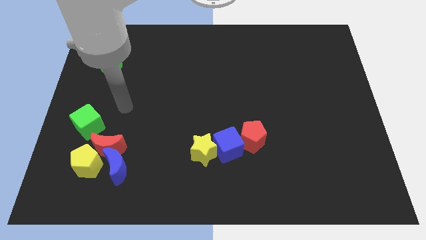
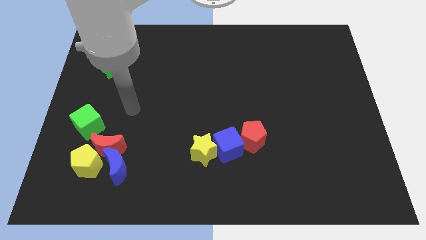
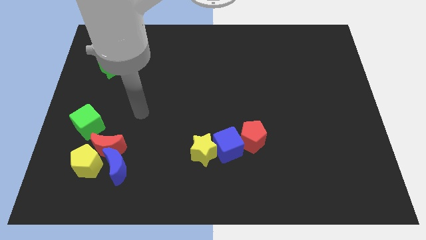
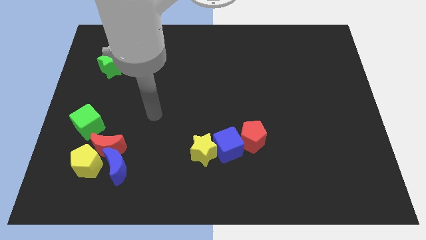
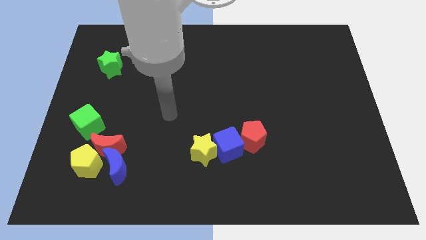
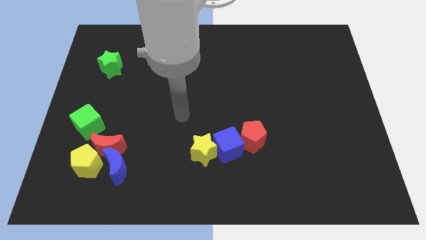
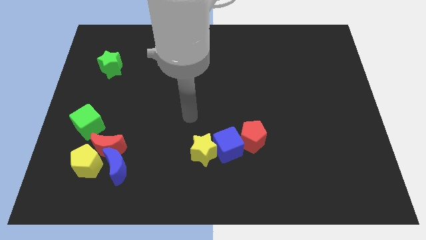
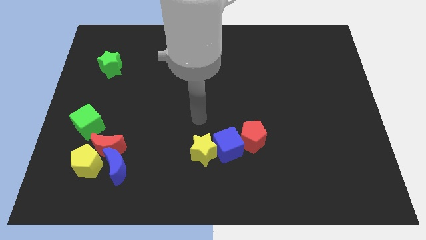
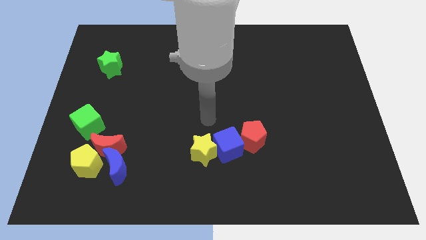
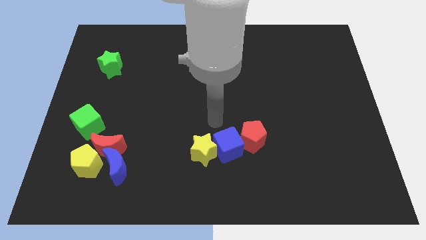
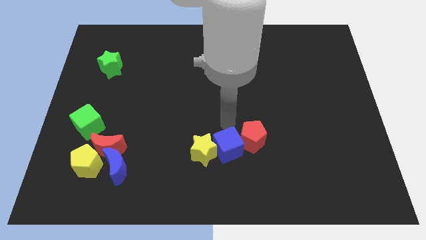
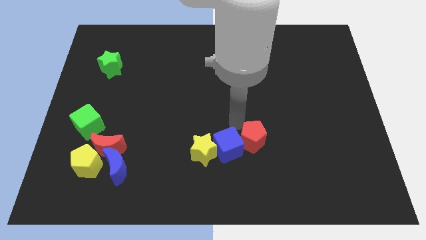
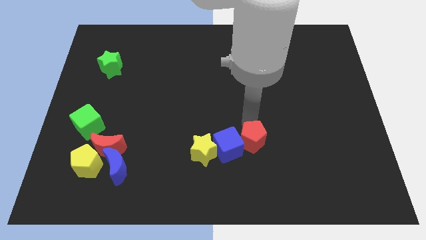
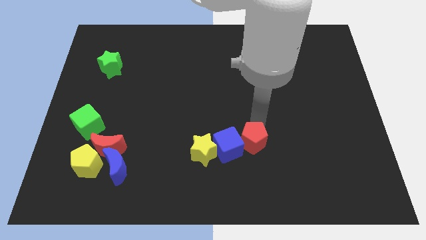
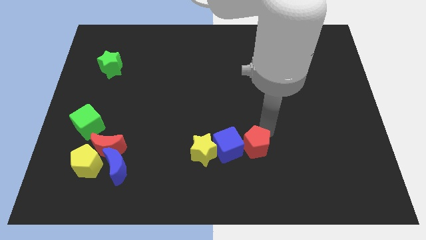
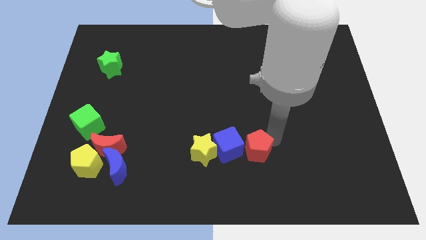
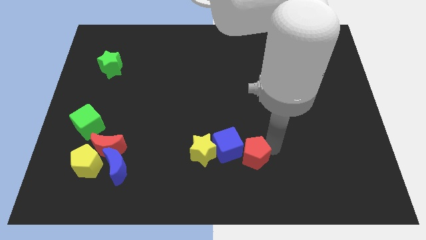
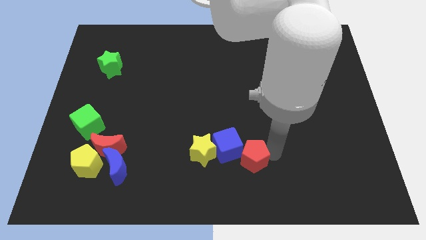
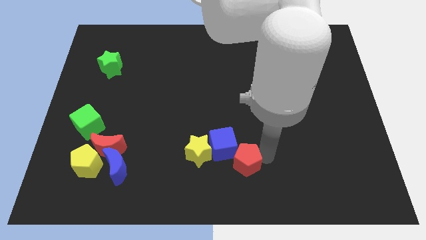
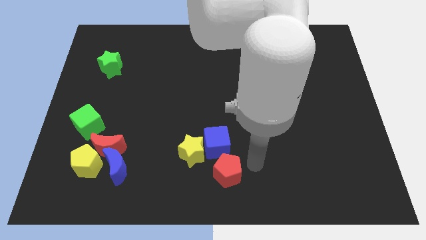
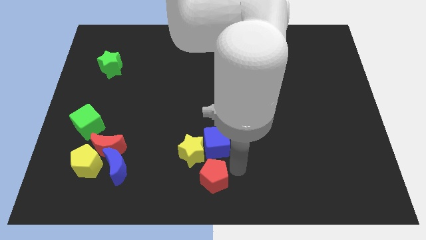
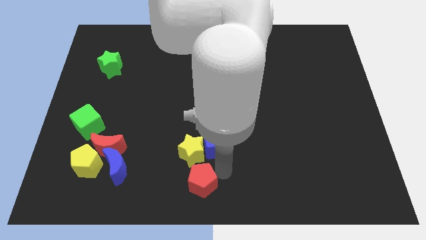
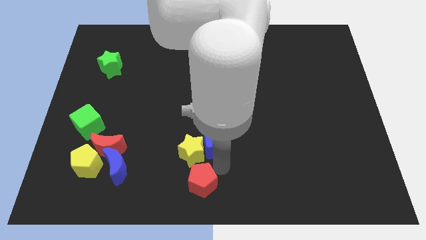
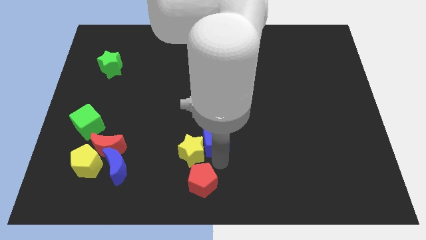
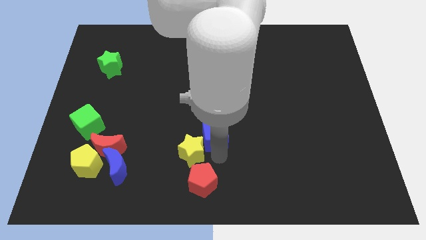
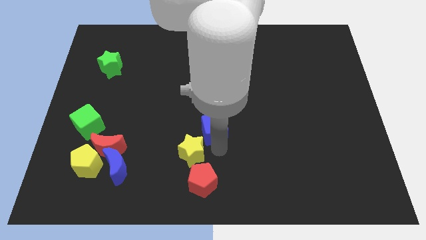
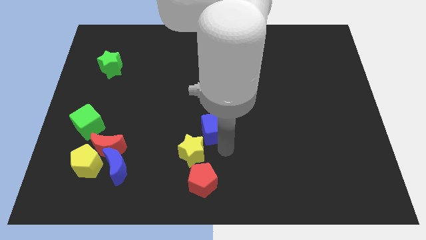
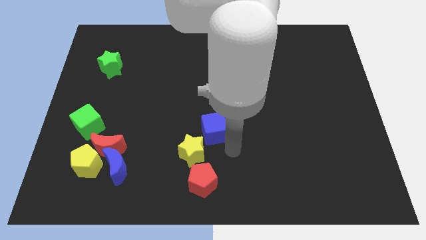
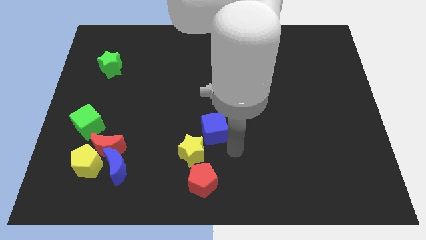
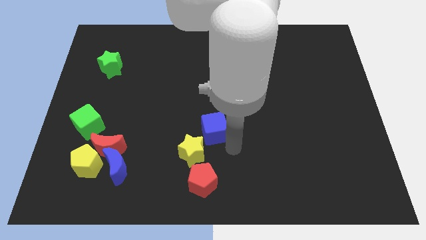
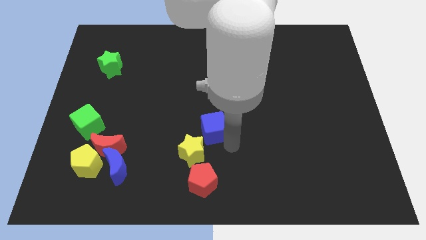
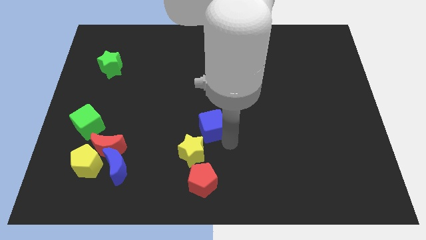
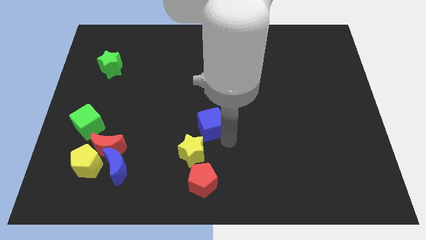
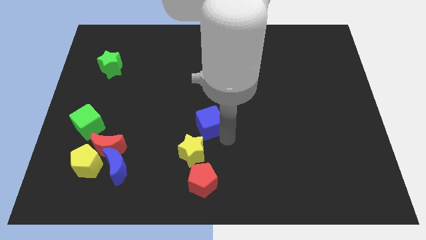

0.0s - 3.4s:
slide the blue cube up and then to the left a little bit

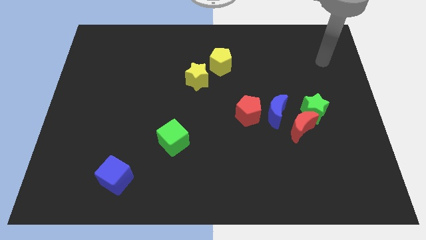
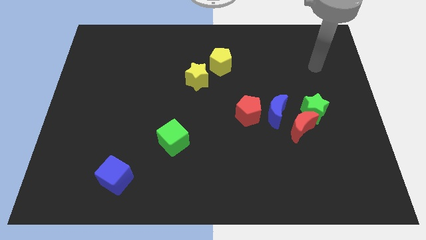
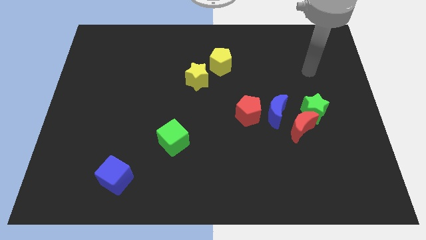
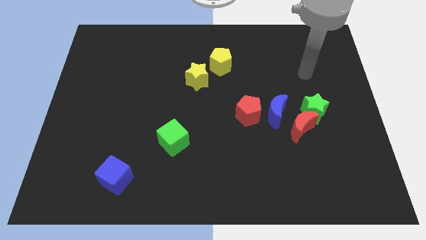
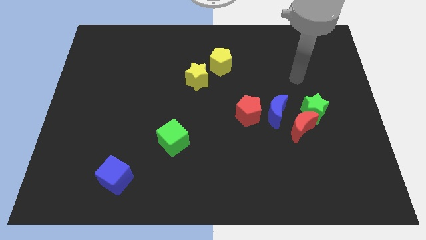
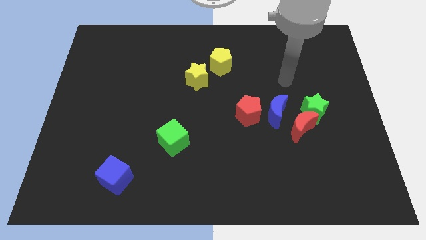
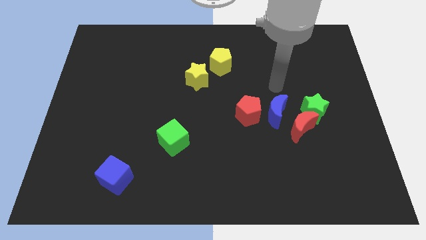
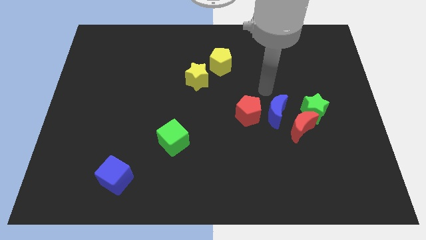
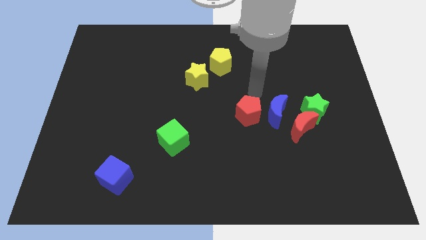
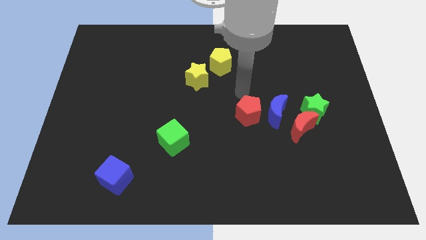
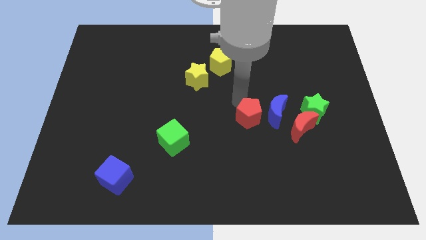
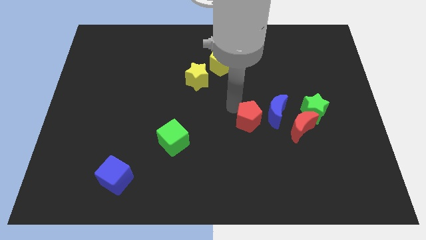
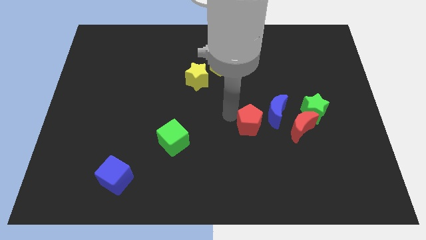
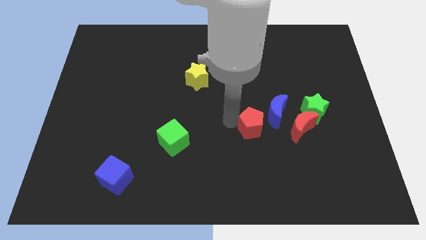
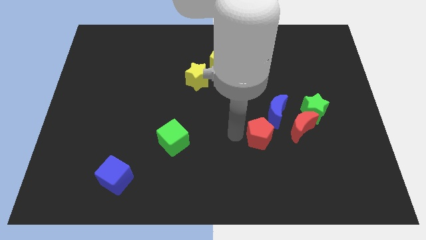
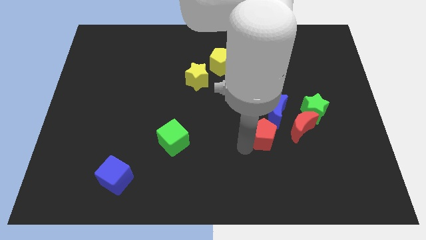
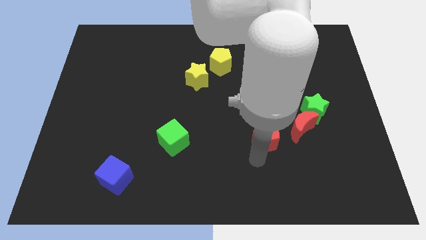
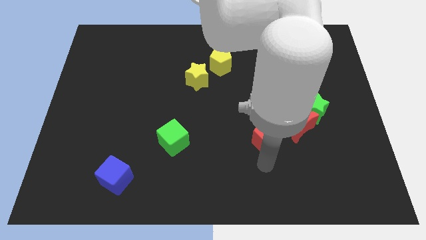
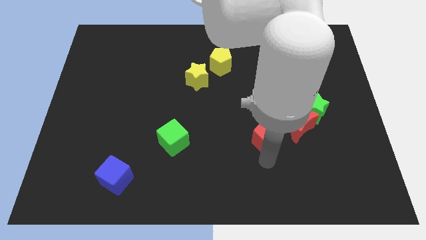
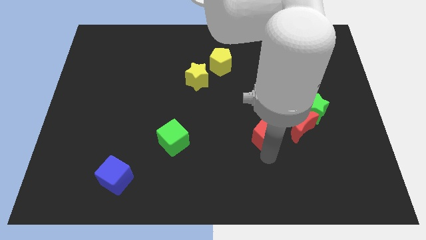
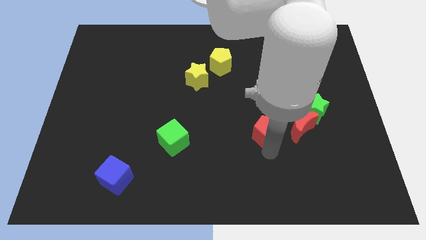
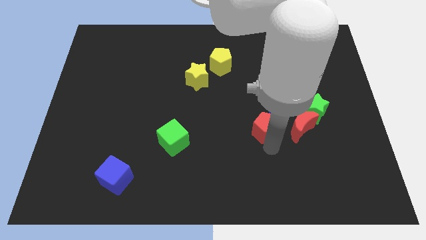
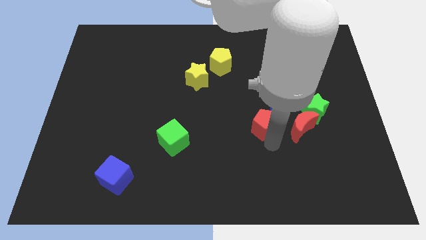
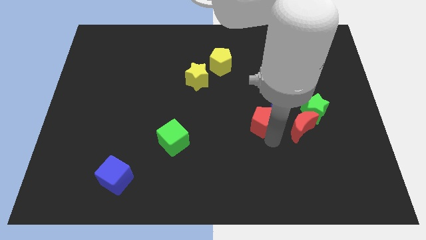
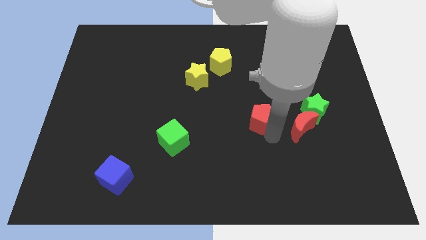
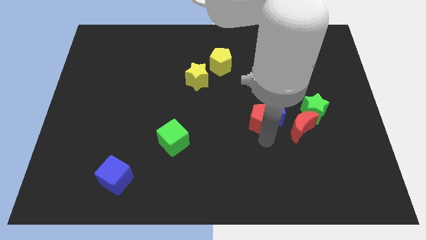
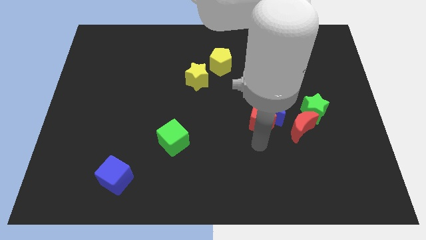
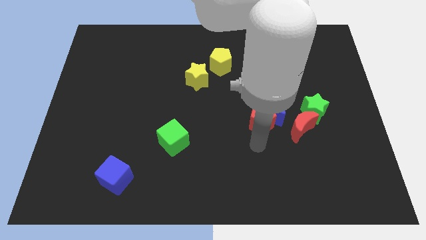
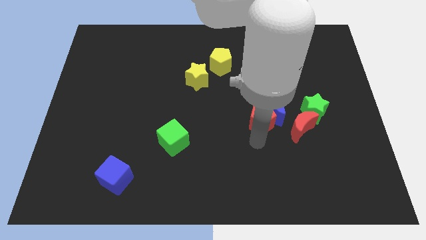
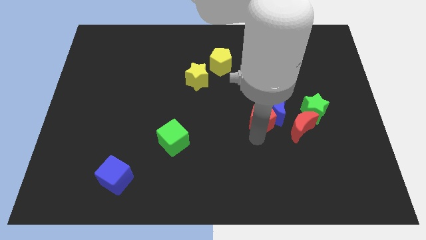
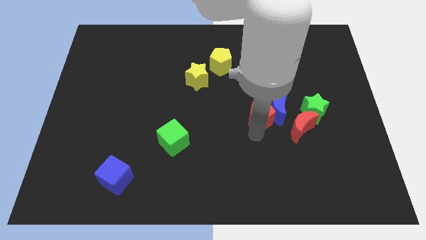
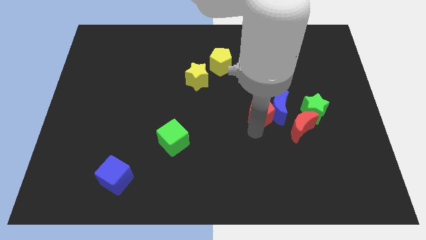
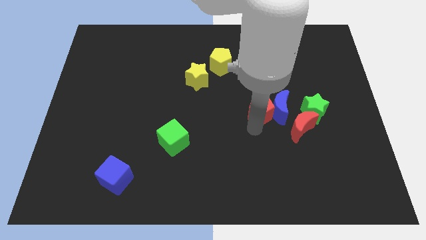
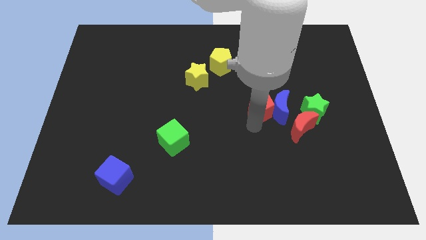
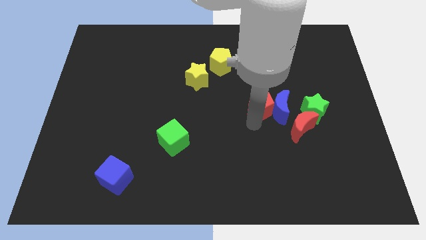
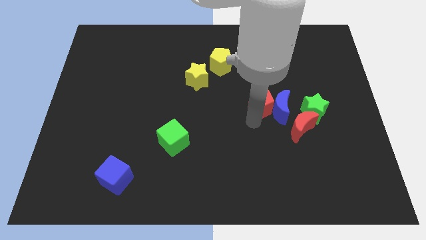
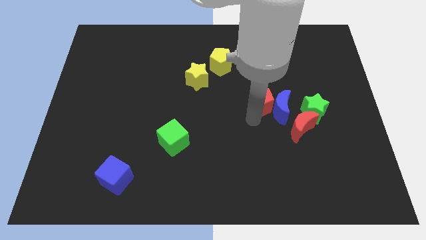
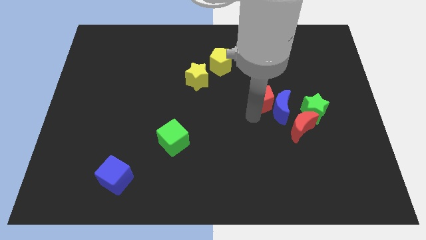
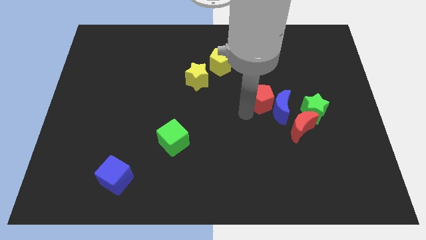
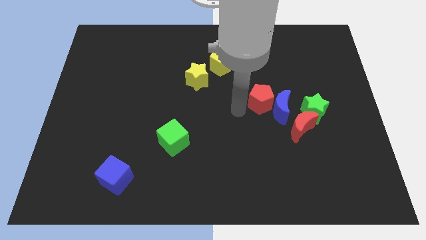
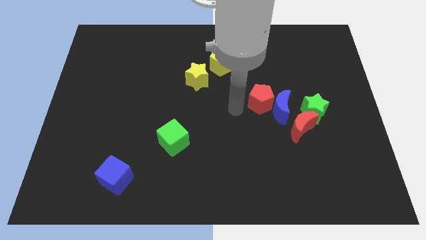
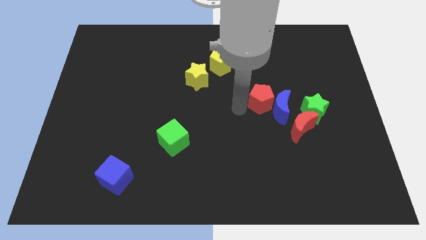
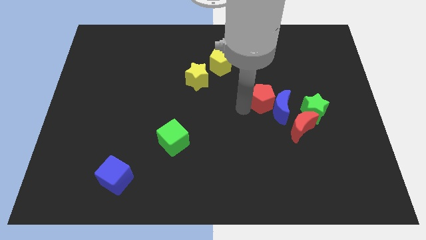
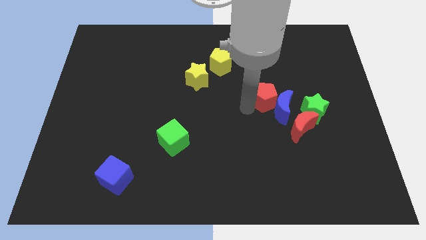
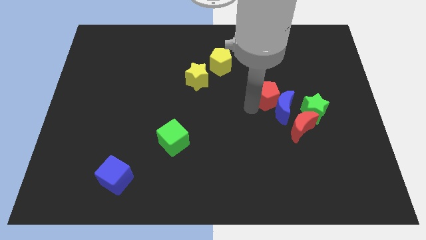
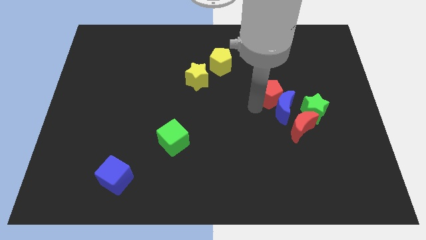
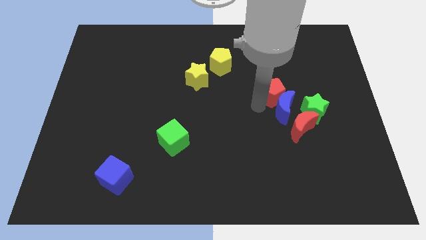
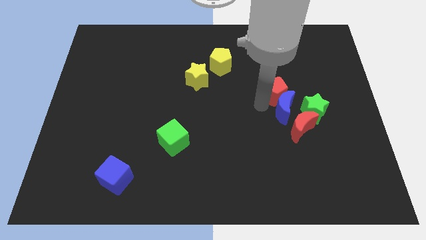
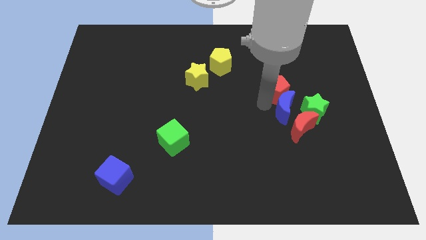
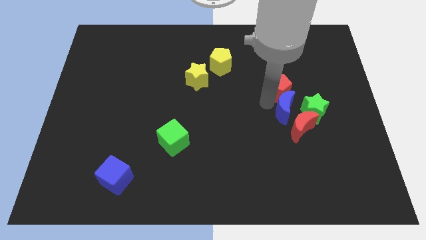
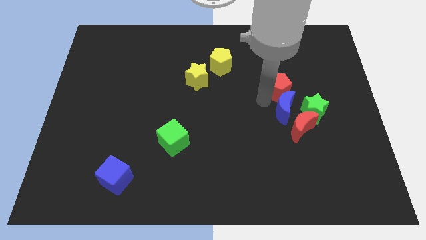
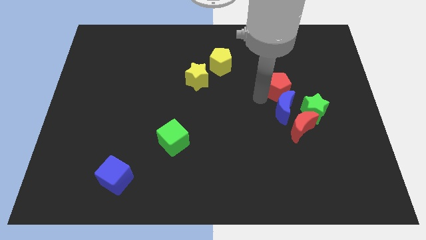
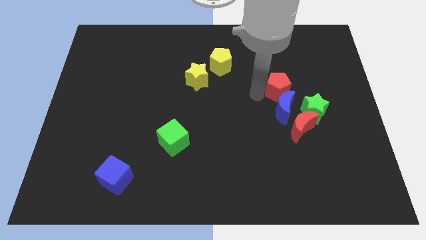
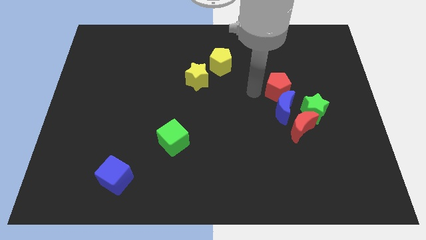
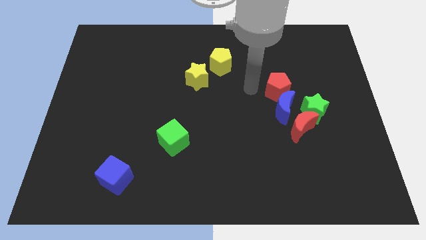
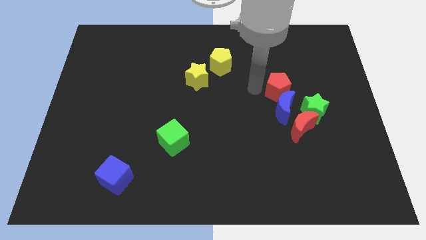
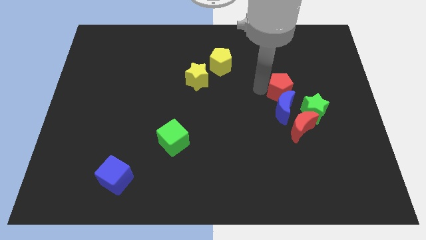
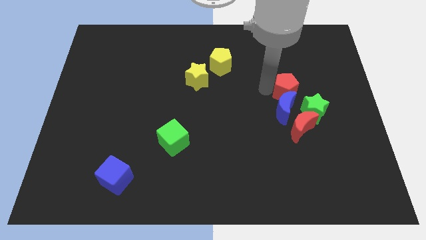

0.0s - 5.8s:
push the red pentagon a bit to the right
